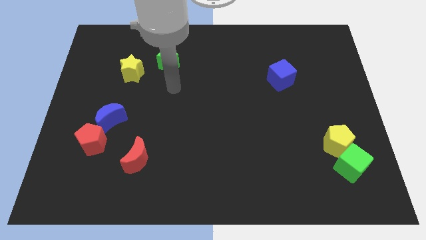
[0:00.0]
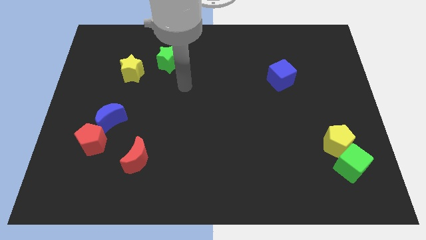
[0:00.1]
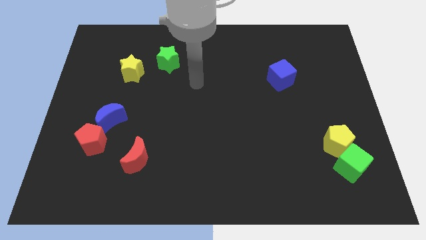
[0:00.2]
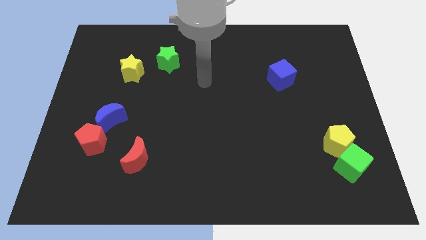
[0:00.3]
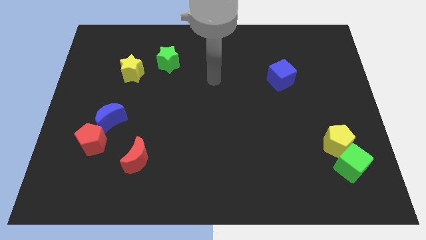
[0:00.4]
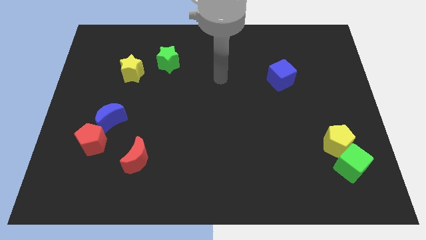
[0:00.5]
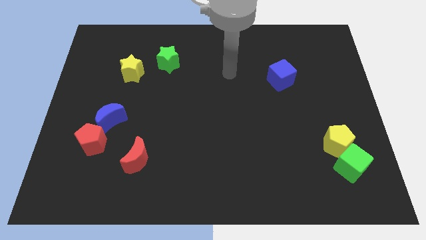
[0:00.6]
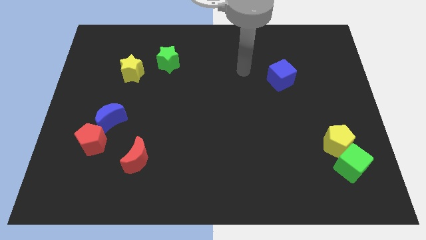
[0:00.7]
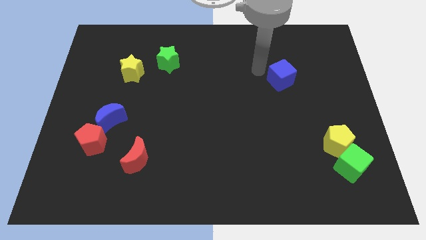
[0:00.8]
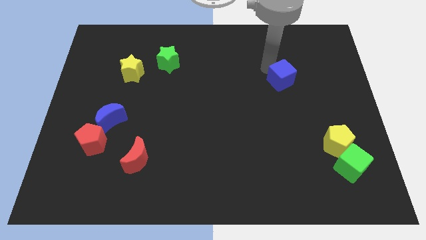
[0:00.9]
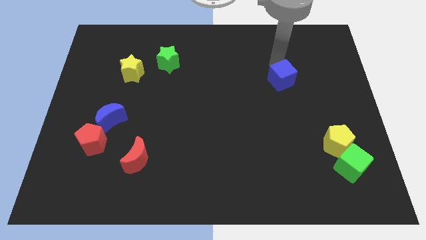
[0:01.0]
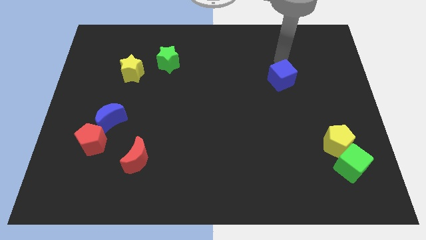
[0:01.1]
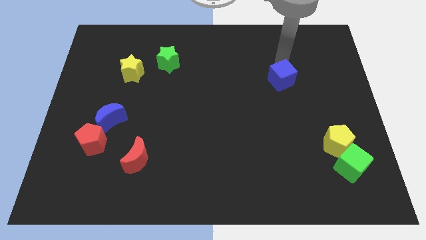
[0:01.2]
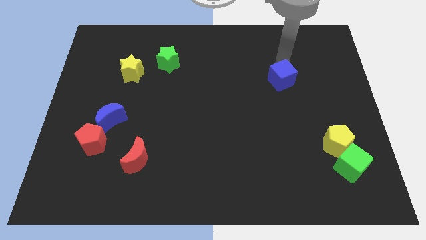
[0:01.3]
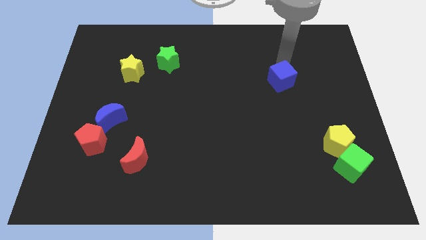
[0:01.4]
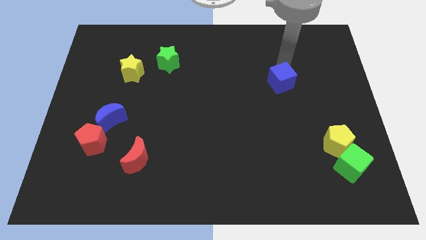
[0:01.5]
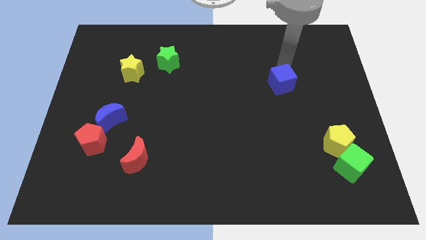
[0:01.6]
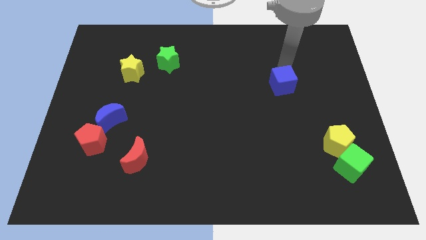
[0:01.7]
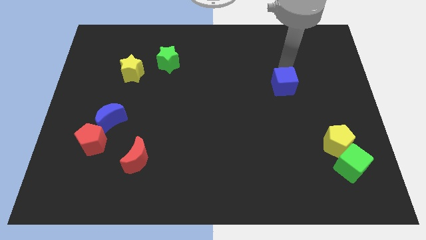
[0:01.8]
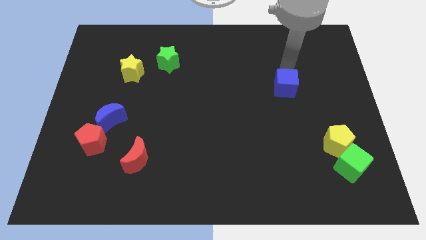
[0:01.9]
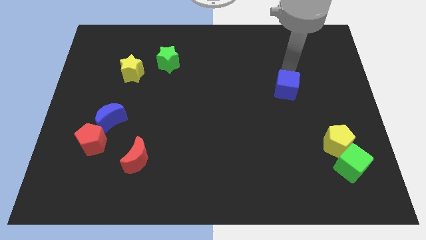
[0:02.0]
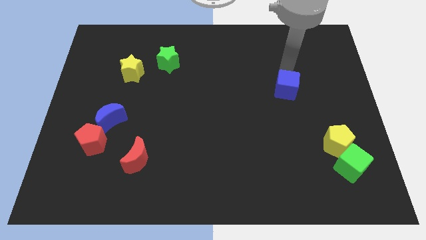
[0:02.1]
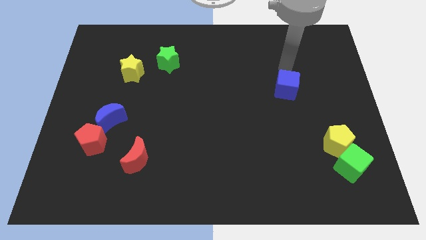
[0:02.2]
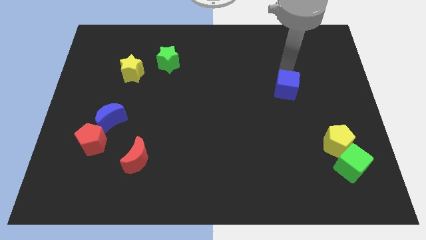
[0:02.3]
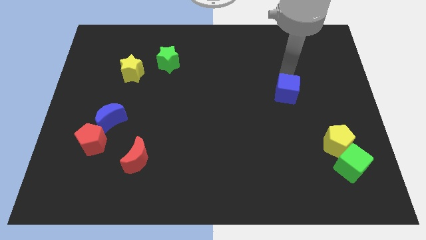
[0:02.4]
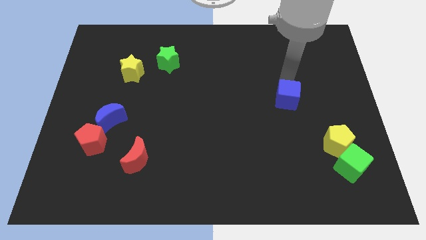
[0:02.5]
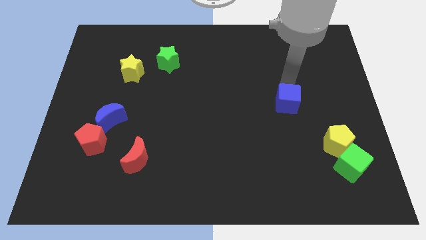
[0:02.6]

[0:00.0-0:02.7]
push the blue cube somewhat downwards

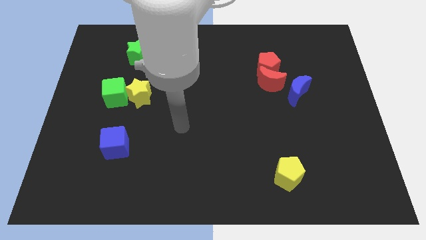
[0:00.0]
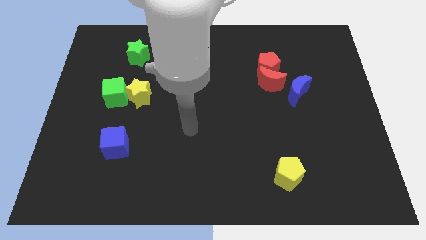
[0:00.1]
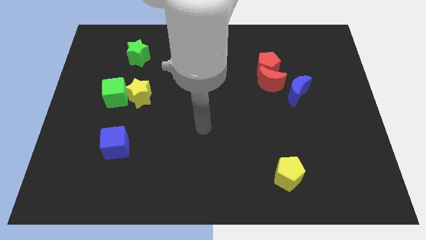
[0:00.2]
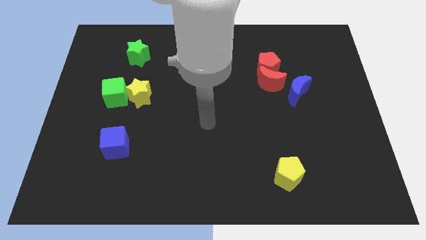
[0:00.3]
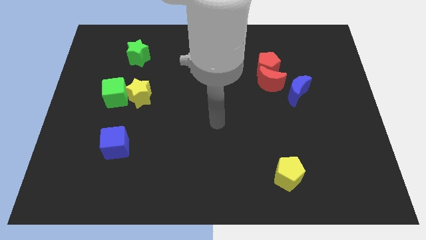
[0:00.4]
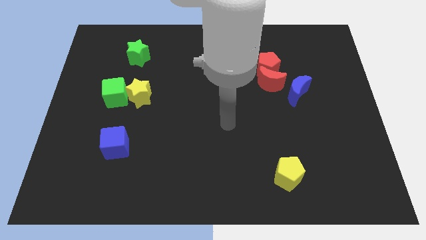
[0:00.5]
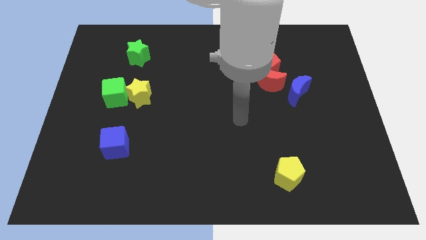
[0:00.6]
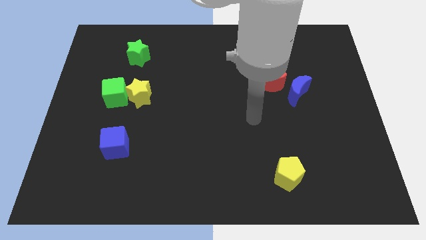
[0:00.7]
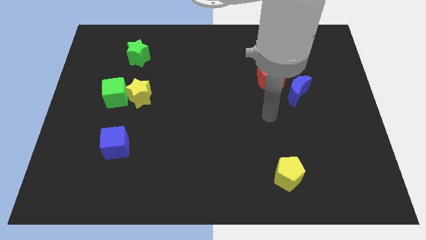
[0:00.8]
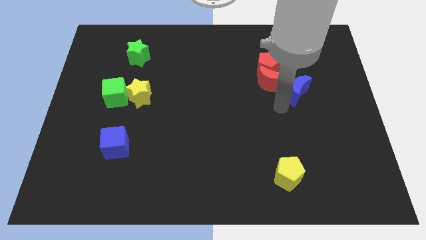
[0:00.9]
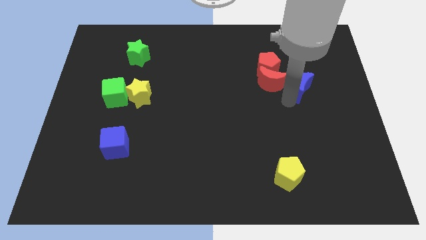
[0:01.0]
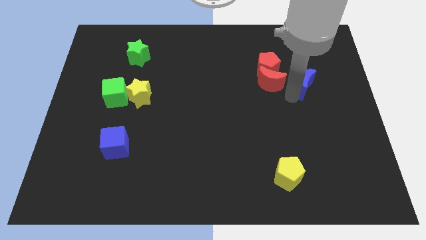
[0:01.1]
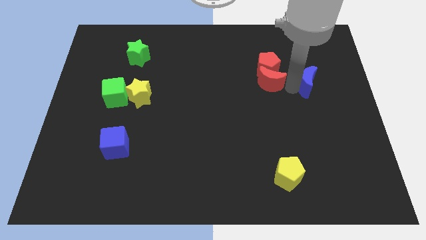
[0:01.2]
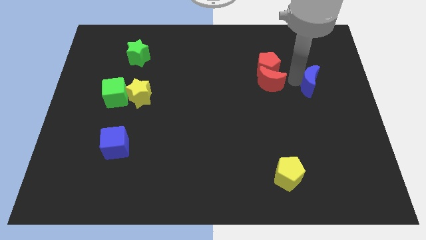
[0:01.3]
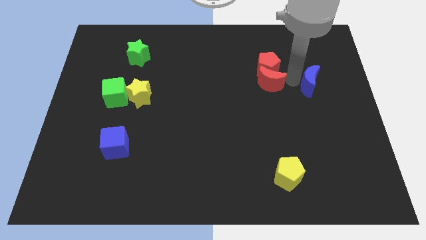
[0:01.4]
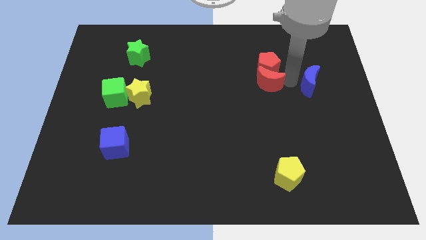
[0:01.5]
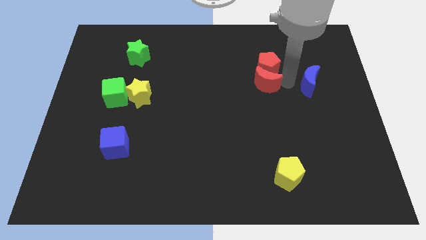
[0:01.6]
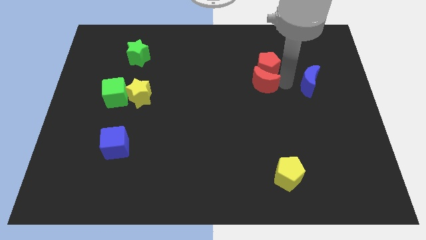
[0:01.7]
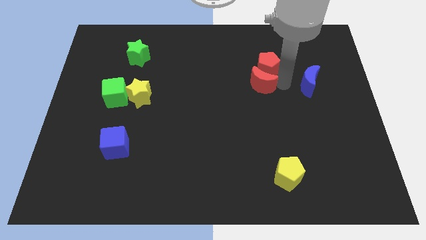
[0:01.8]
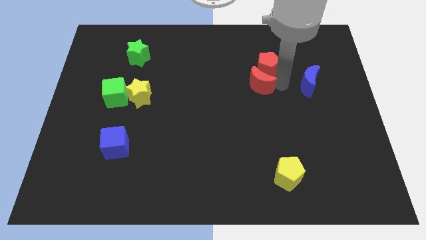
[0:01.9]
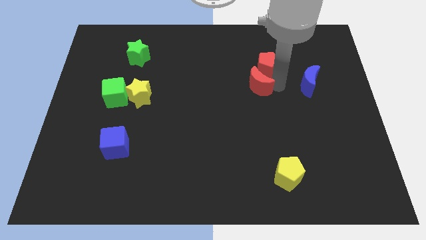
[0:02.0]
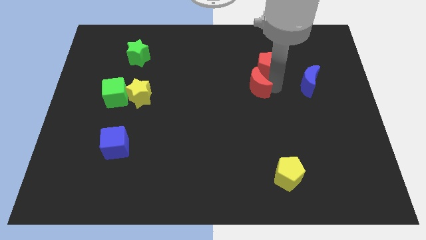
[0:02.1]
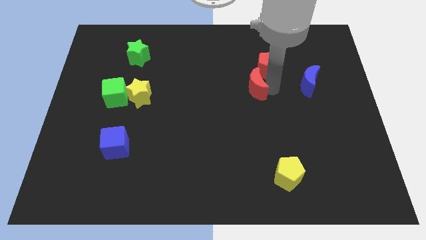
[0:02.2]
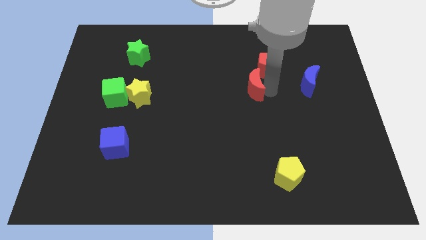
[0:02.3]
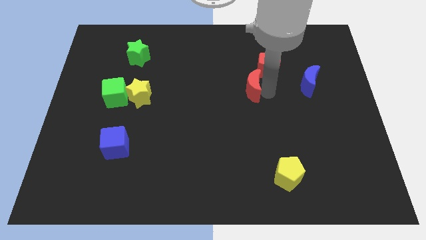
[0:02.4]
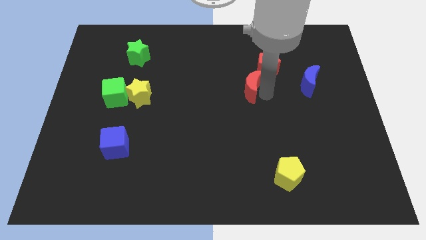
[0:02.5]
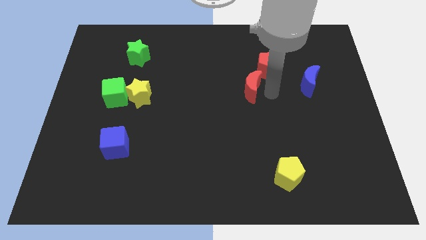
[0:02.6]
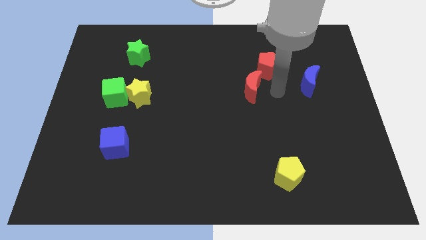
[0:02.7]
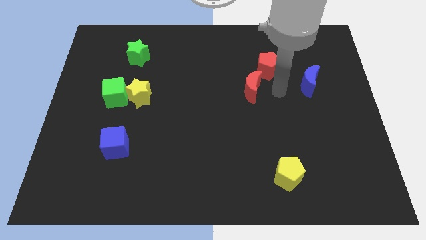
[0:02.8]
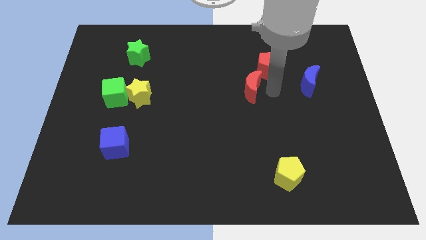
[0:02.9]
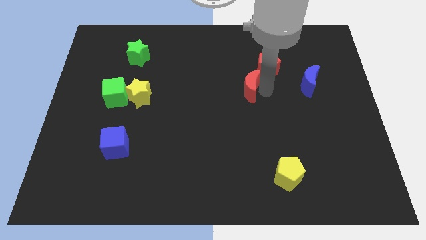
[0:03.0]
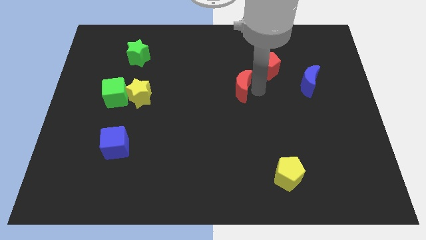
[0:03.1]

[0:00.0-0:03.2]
slightly move the red moon to the left

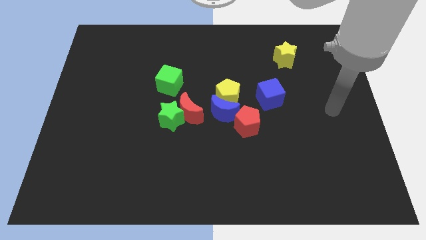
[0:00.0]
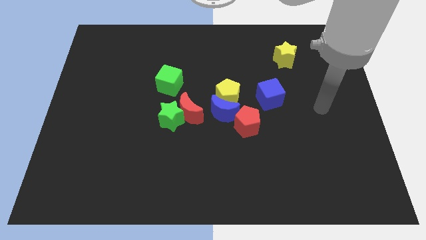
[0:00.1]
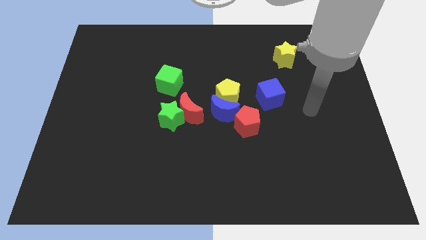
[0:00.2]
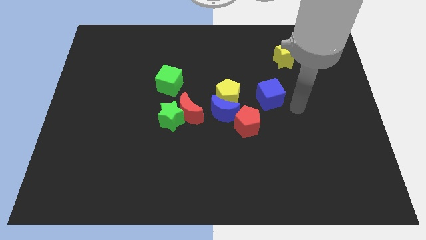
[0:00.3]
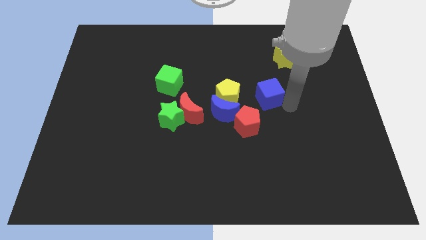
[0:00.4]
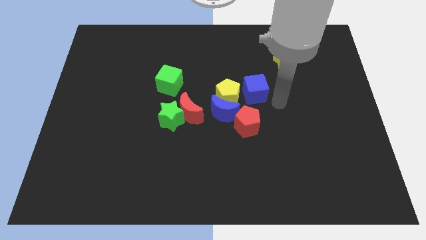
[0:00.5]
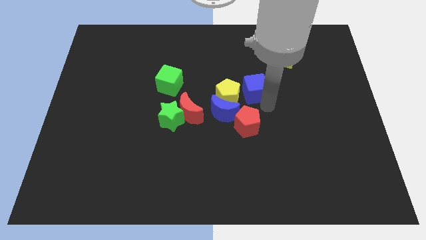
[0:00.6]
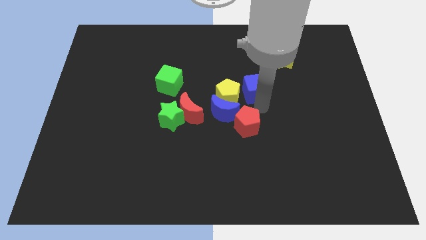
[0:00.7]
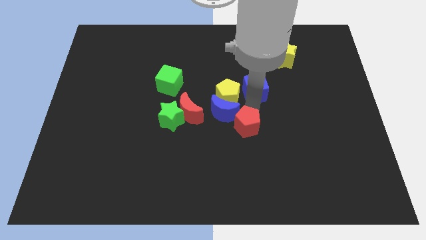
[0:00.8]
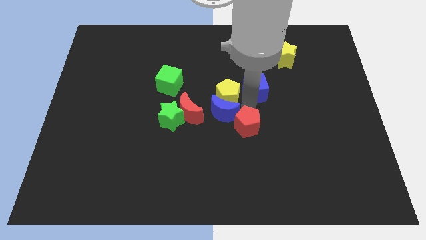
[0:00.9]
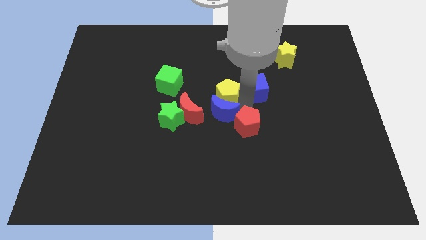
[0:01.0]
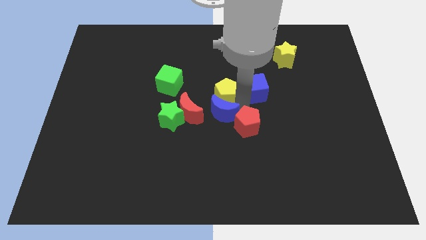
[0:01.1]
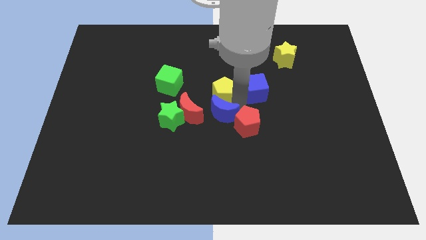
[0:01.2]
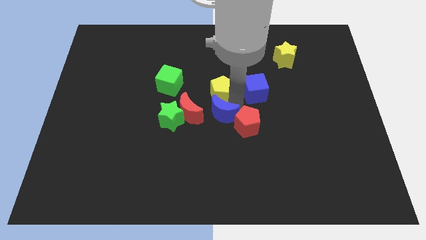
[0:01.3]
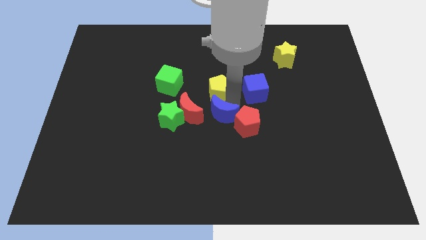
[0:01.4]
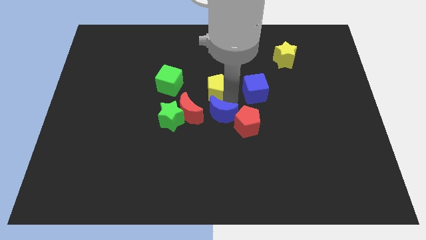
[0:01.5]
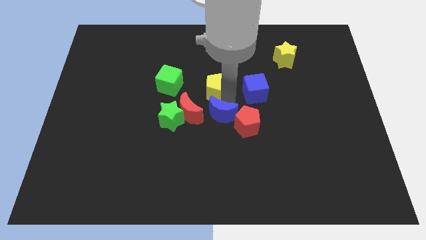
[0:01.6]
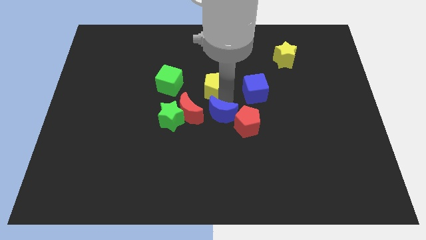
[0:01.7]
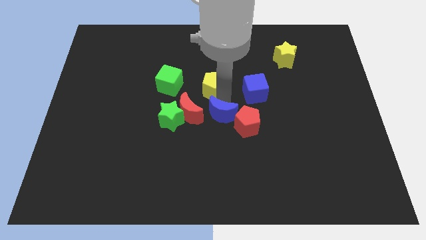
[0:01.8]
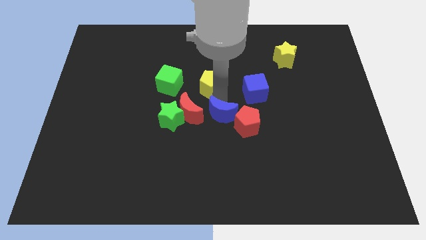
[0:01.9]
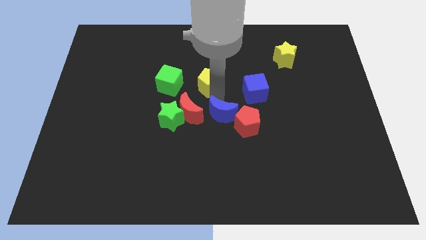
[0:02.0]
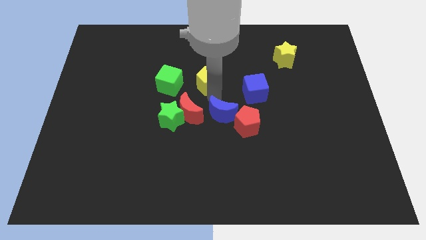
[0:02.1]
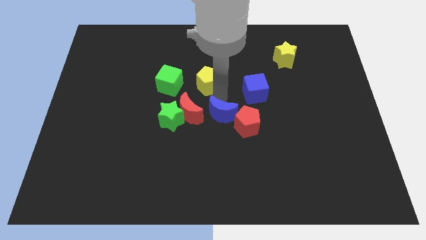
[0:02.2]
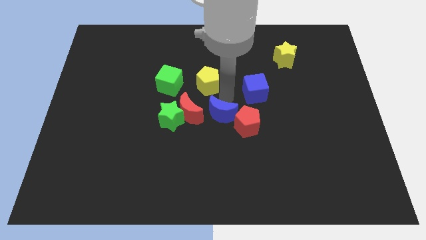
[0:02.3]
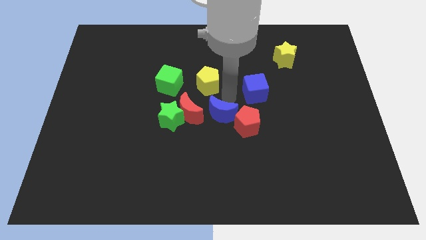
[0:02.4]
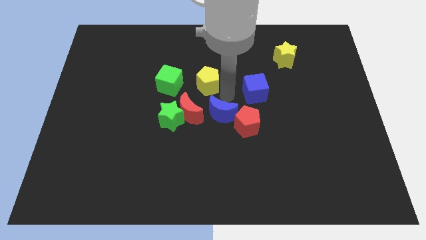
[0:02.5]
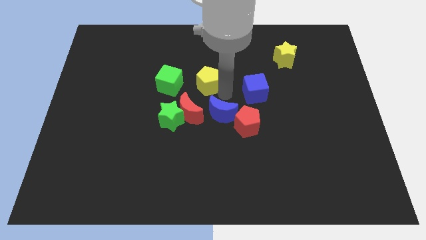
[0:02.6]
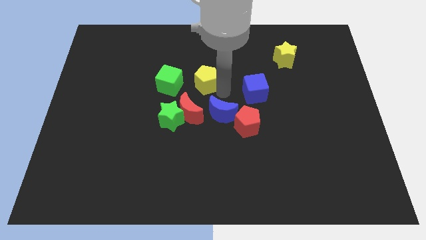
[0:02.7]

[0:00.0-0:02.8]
move the yellow pentagon upwards and left diagonally a little bit
